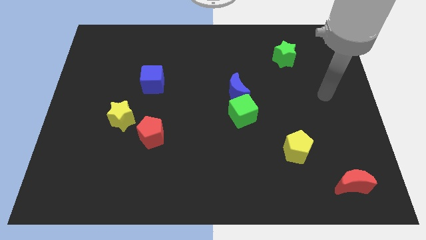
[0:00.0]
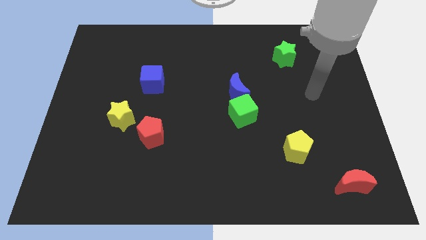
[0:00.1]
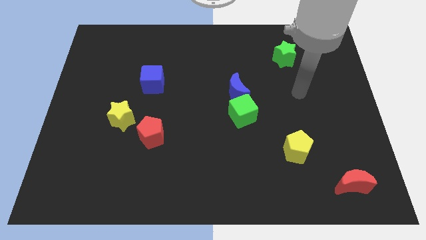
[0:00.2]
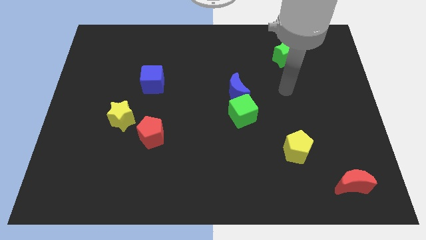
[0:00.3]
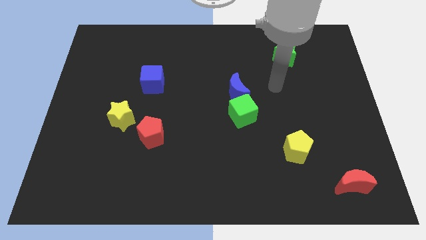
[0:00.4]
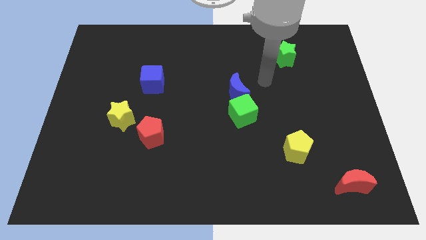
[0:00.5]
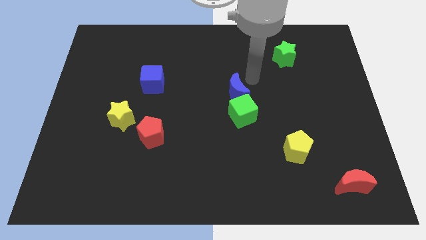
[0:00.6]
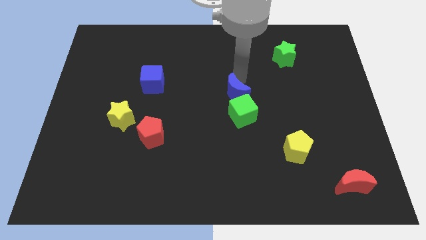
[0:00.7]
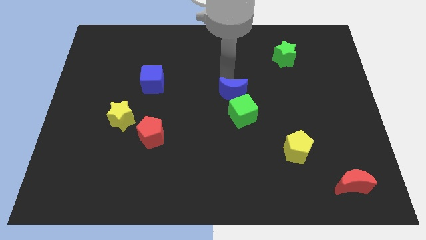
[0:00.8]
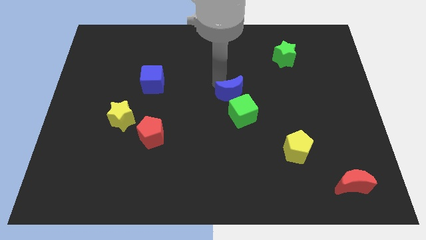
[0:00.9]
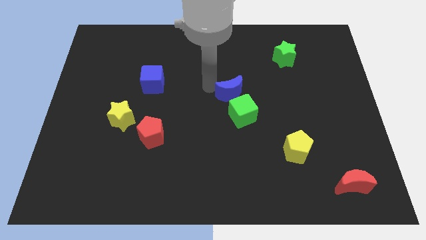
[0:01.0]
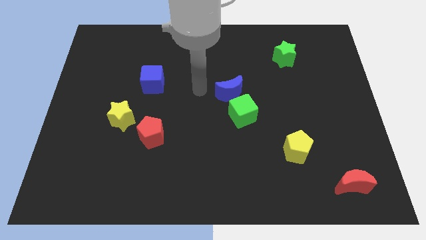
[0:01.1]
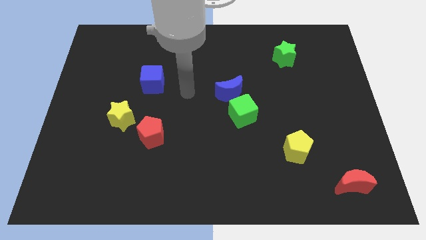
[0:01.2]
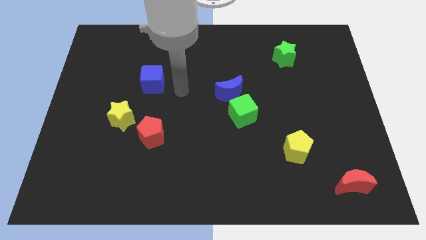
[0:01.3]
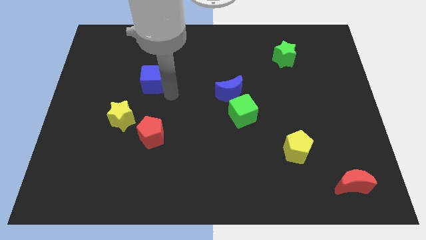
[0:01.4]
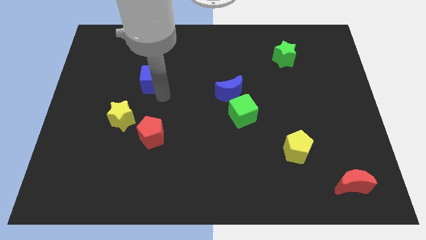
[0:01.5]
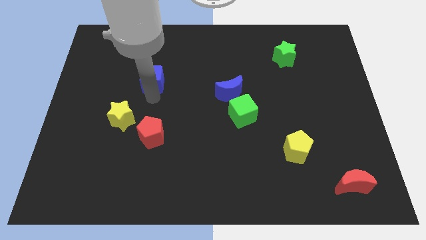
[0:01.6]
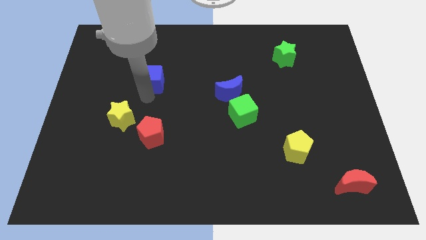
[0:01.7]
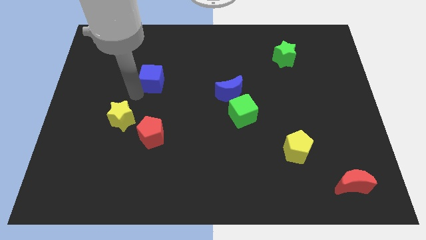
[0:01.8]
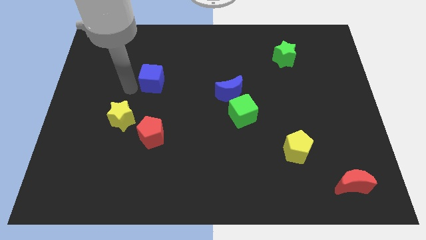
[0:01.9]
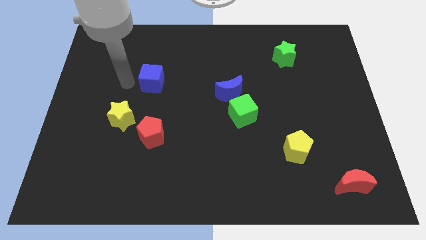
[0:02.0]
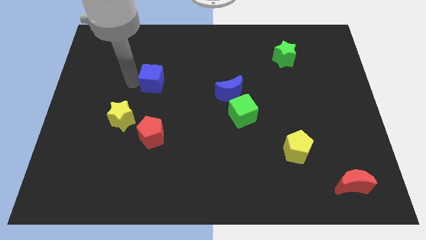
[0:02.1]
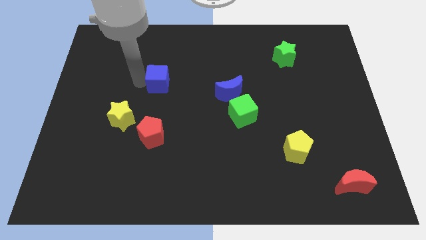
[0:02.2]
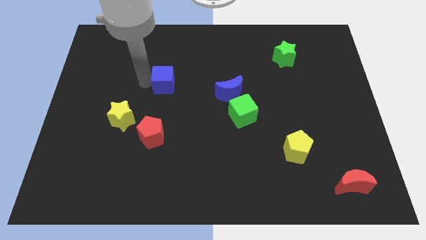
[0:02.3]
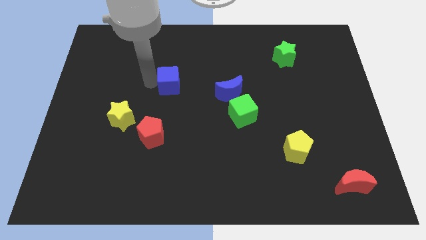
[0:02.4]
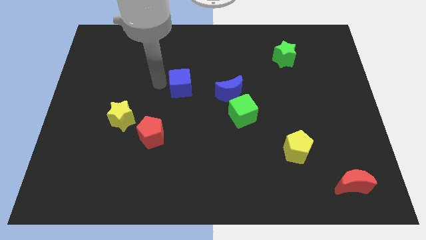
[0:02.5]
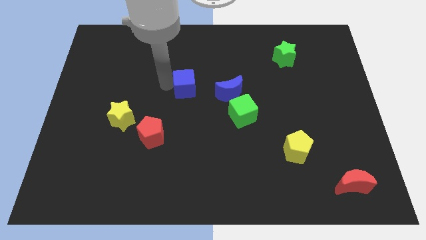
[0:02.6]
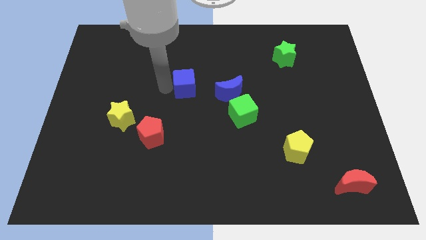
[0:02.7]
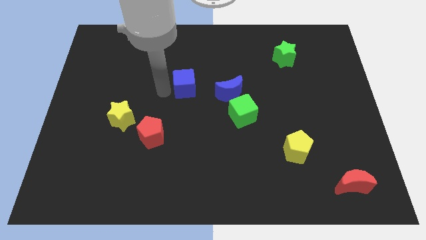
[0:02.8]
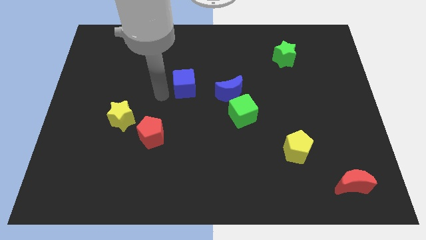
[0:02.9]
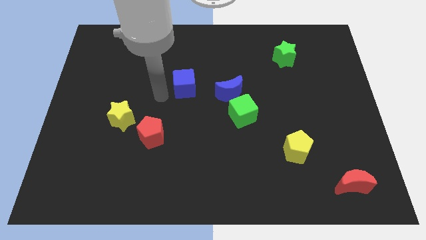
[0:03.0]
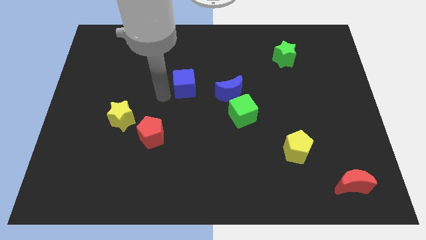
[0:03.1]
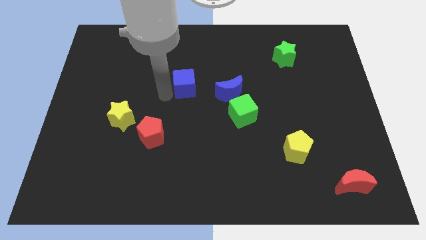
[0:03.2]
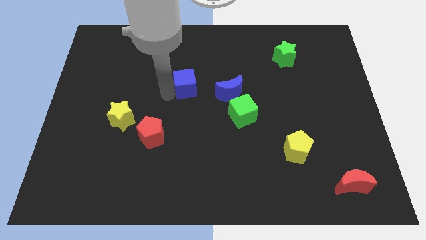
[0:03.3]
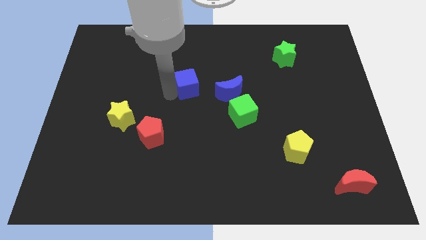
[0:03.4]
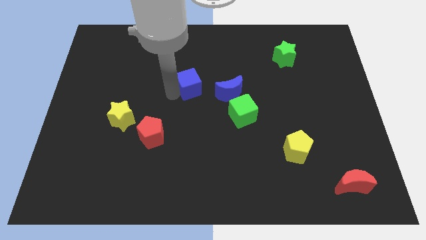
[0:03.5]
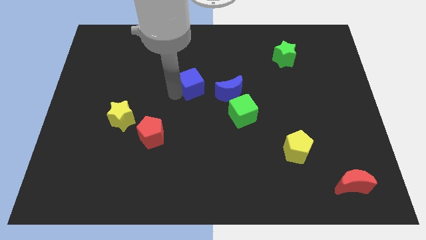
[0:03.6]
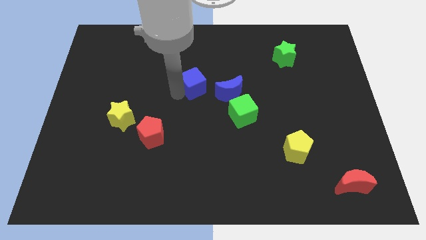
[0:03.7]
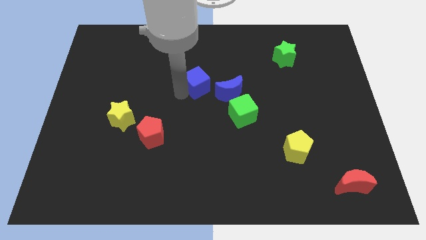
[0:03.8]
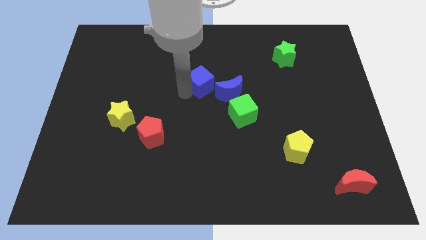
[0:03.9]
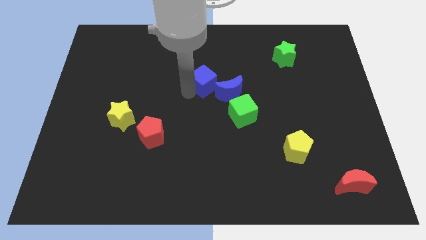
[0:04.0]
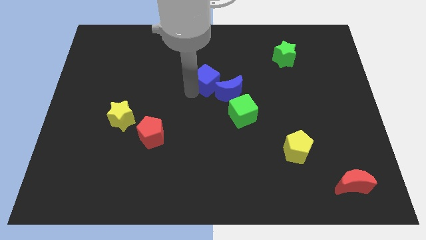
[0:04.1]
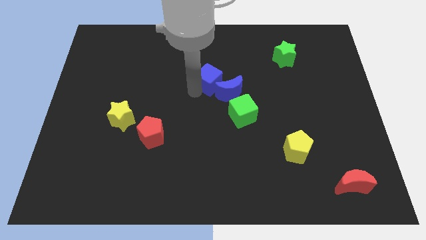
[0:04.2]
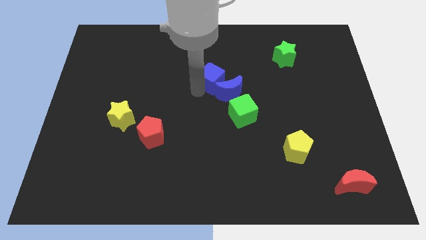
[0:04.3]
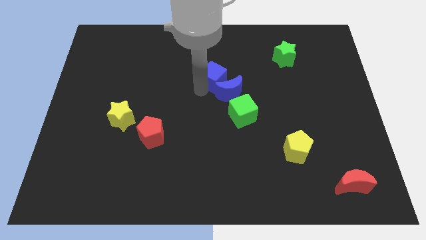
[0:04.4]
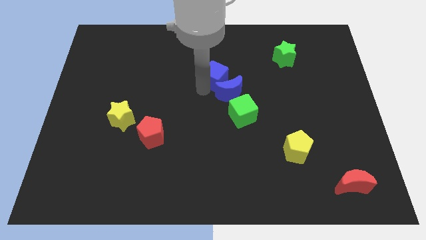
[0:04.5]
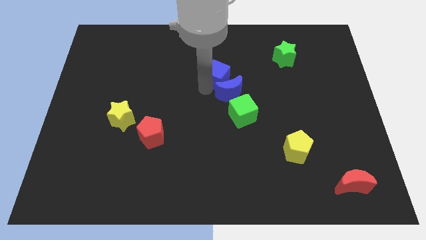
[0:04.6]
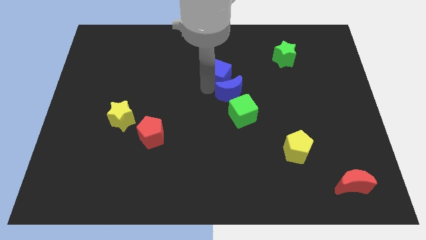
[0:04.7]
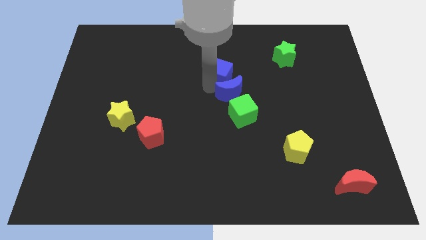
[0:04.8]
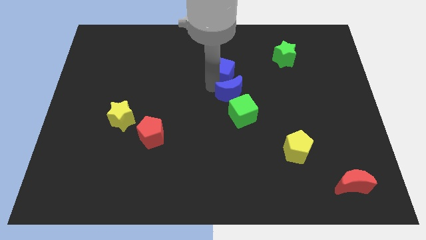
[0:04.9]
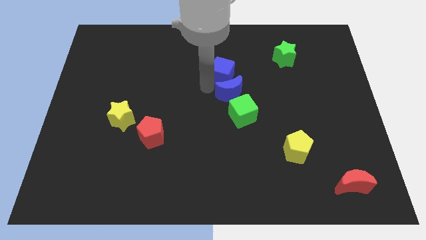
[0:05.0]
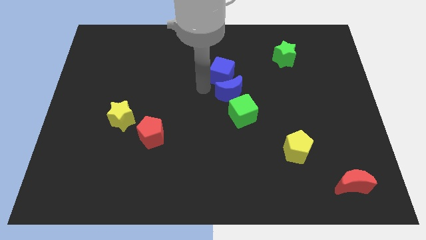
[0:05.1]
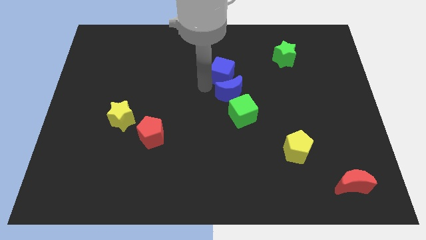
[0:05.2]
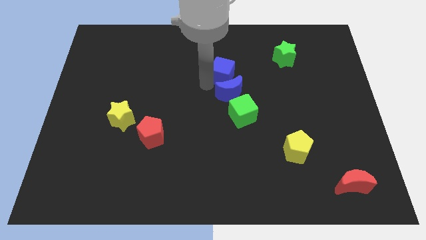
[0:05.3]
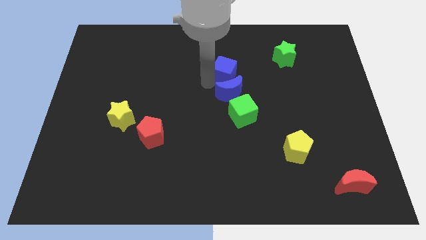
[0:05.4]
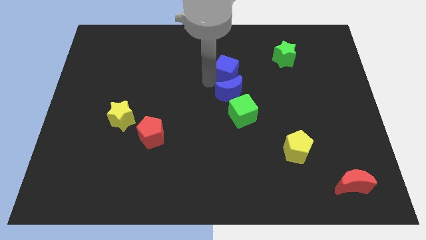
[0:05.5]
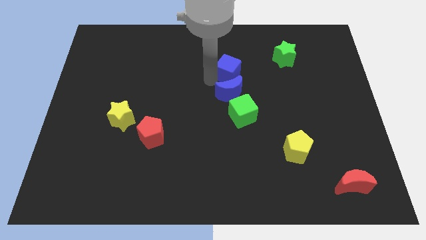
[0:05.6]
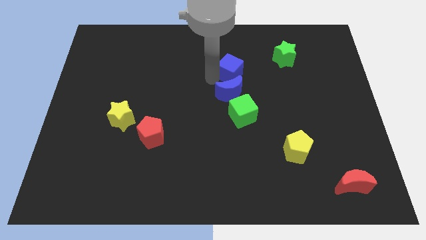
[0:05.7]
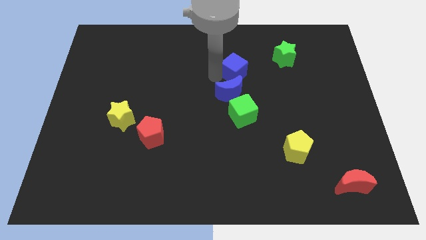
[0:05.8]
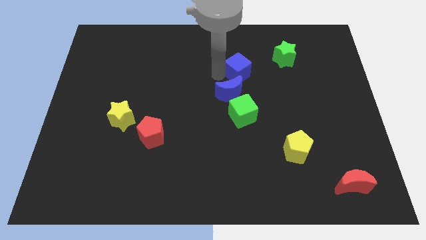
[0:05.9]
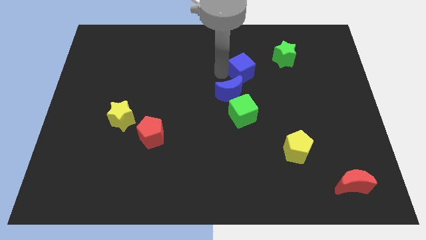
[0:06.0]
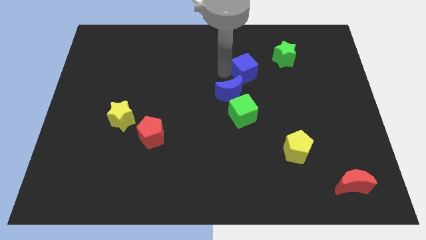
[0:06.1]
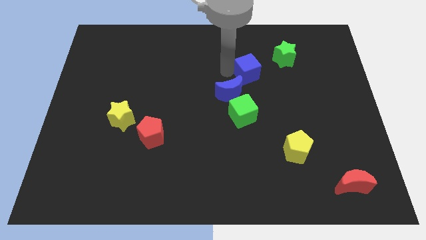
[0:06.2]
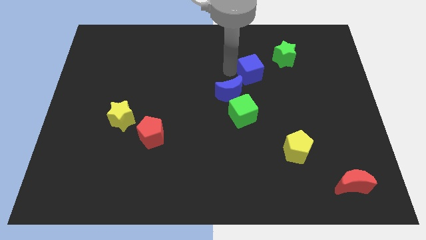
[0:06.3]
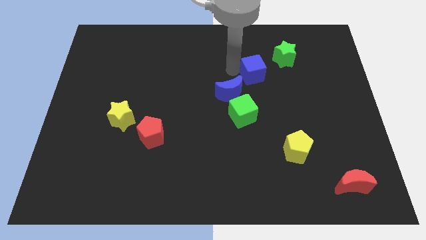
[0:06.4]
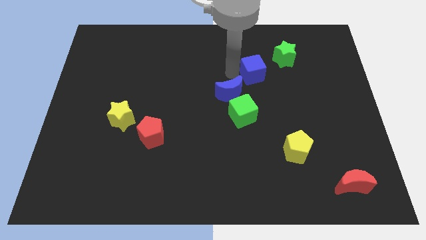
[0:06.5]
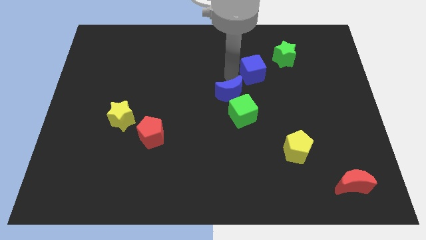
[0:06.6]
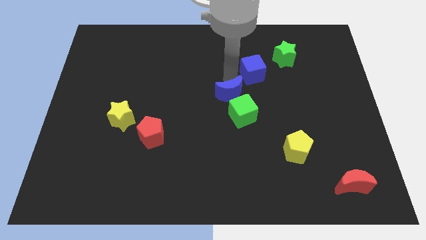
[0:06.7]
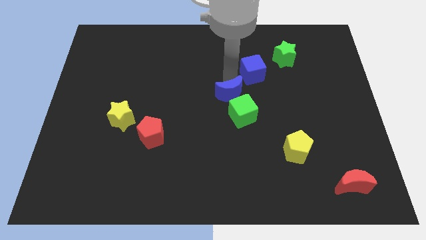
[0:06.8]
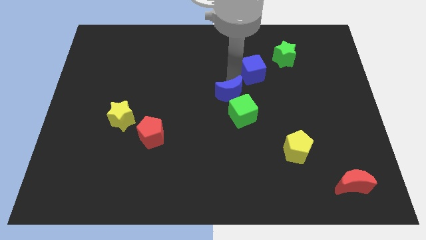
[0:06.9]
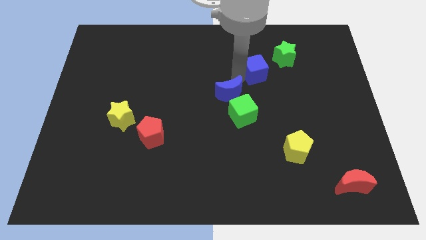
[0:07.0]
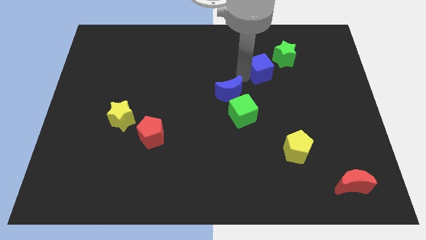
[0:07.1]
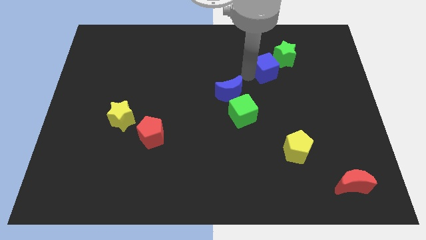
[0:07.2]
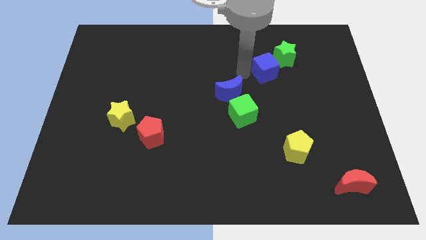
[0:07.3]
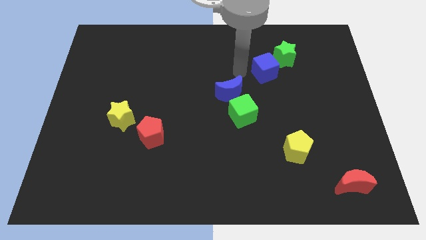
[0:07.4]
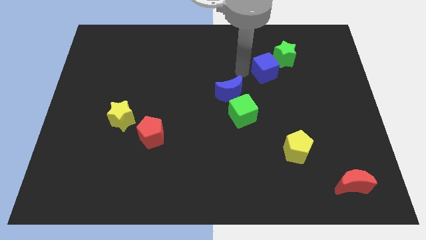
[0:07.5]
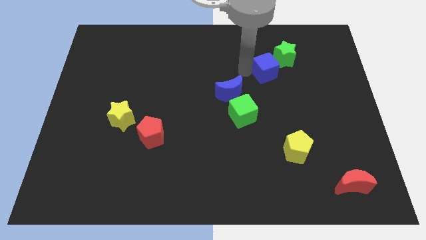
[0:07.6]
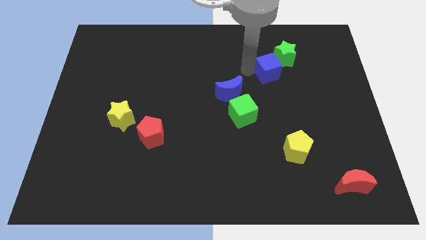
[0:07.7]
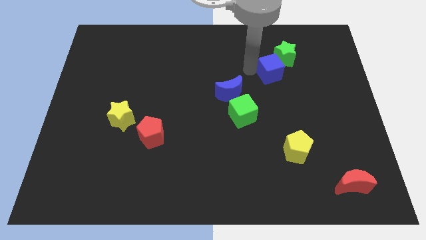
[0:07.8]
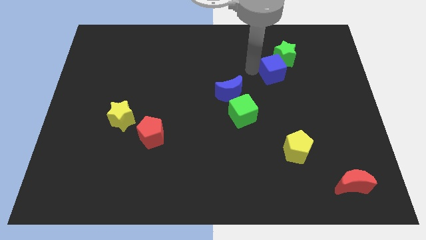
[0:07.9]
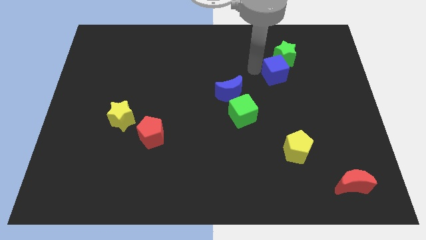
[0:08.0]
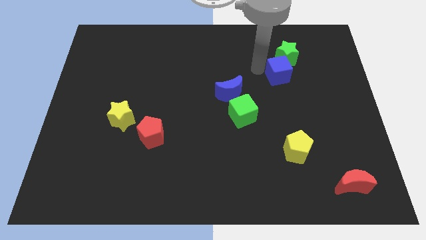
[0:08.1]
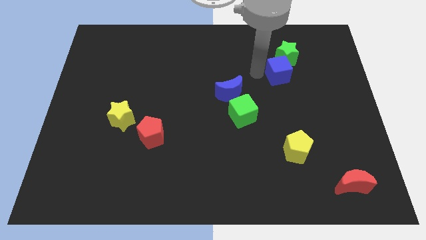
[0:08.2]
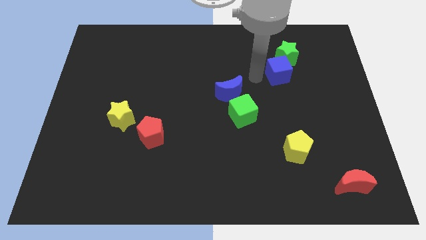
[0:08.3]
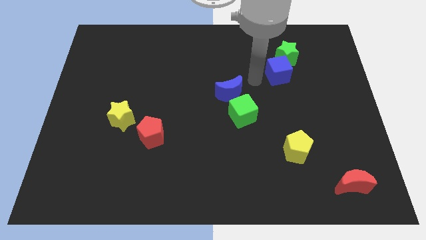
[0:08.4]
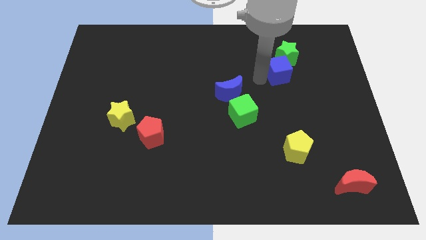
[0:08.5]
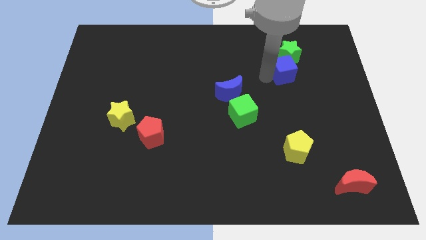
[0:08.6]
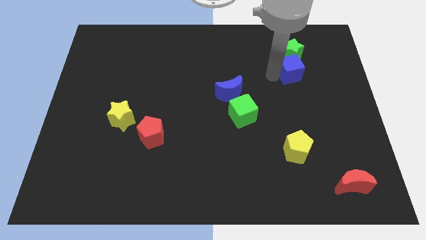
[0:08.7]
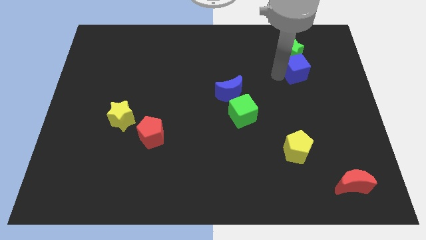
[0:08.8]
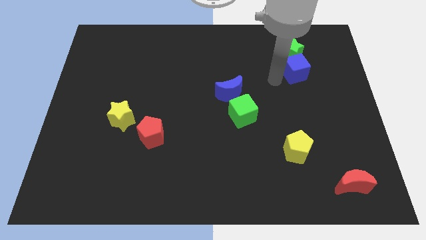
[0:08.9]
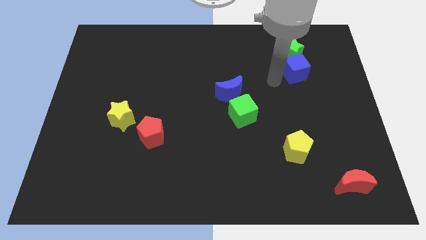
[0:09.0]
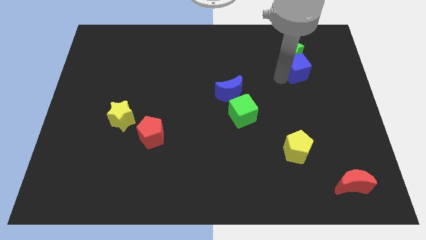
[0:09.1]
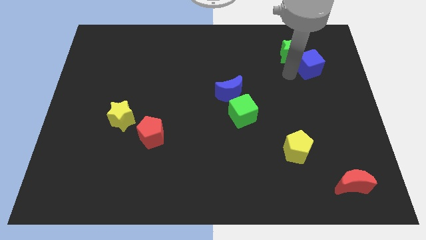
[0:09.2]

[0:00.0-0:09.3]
move the blue cube to the right side of the green star
